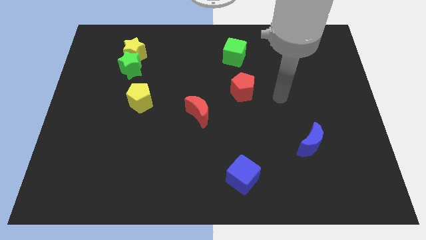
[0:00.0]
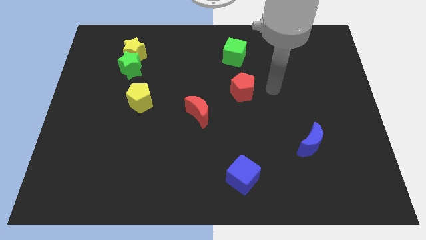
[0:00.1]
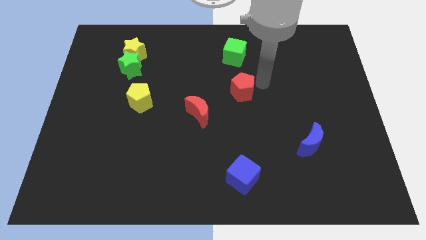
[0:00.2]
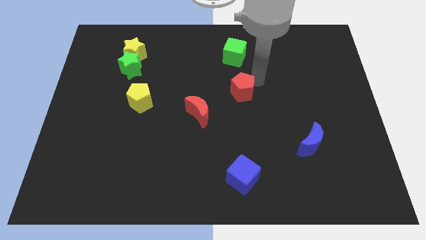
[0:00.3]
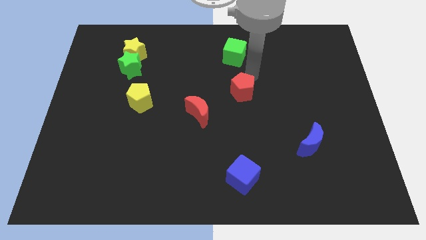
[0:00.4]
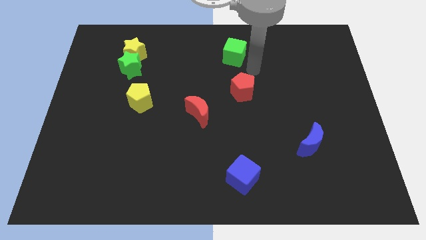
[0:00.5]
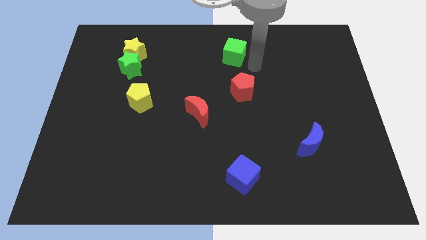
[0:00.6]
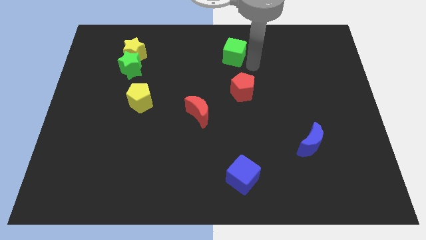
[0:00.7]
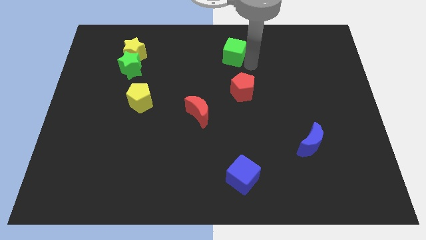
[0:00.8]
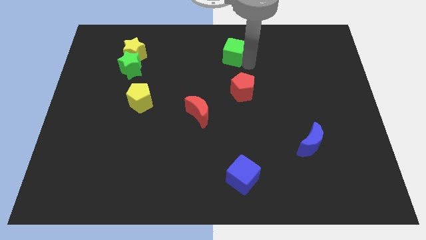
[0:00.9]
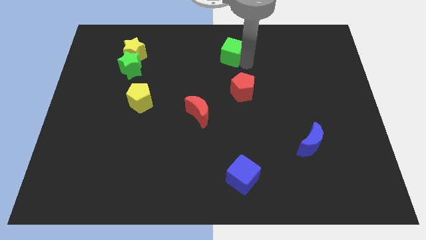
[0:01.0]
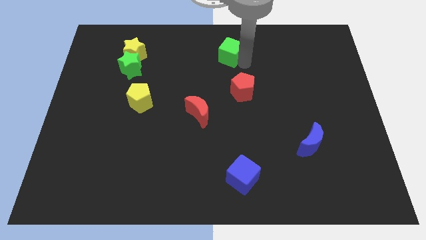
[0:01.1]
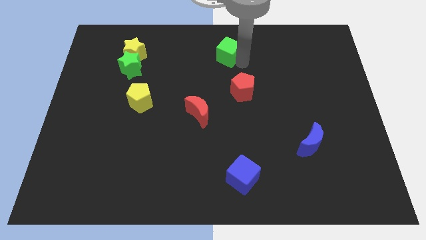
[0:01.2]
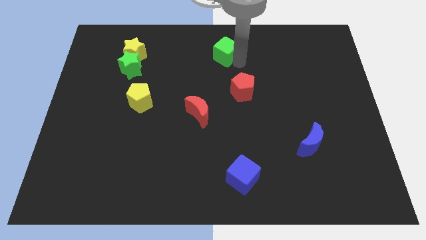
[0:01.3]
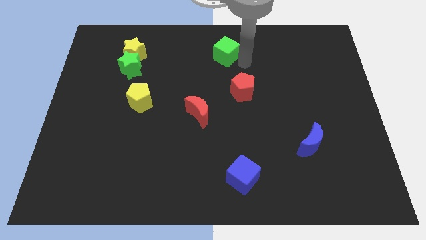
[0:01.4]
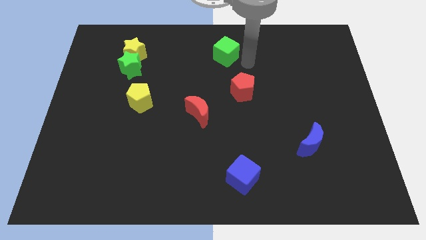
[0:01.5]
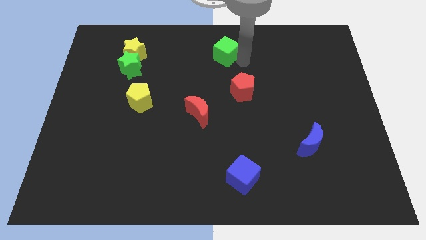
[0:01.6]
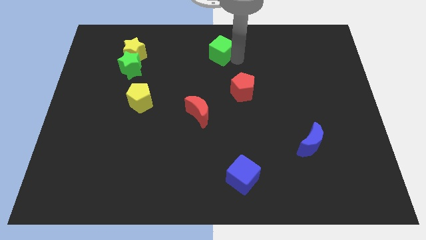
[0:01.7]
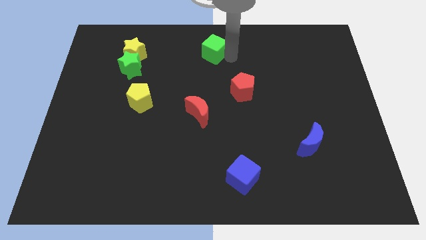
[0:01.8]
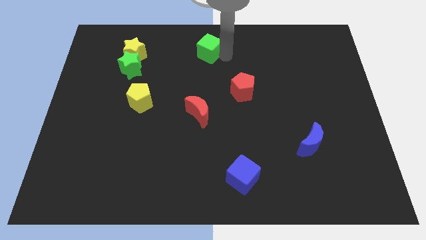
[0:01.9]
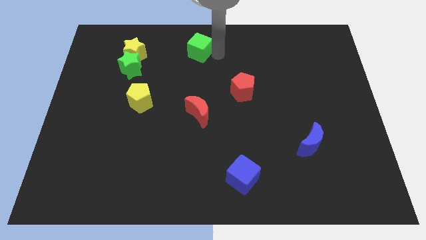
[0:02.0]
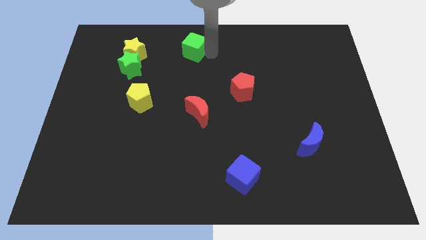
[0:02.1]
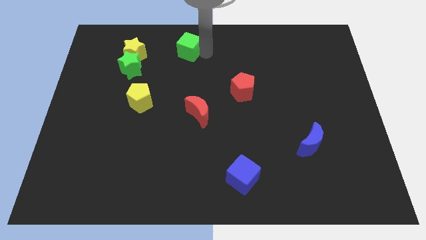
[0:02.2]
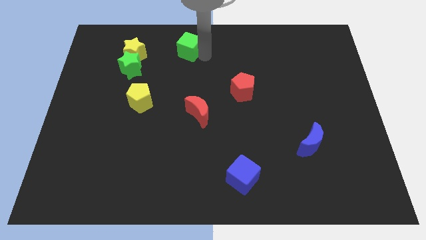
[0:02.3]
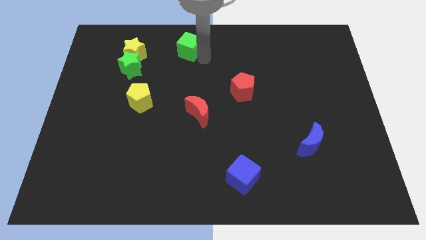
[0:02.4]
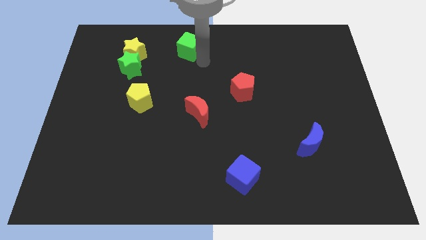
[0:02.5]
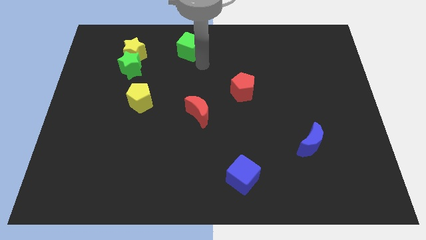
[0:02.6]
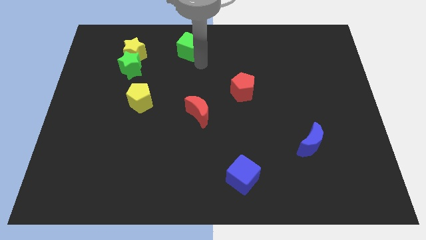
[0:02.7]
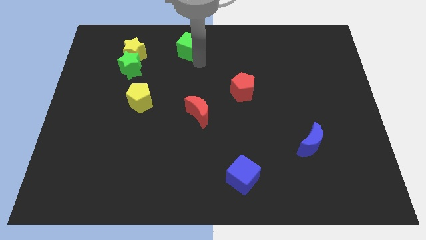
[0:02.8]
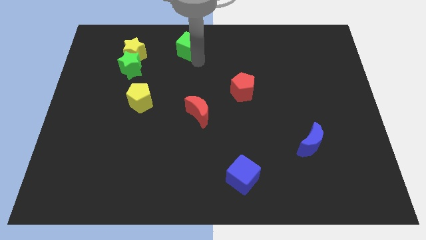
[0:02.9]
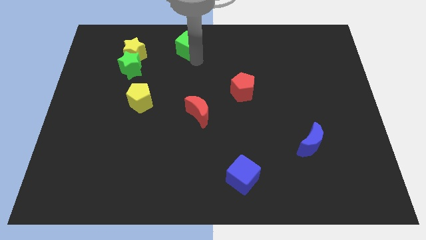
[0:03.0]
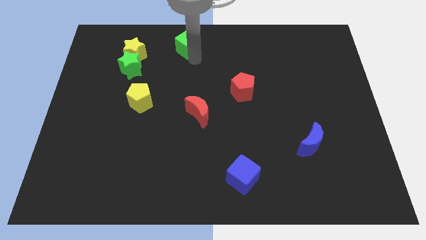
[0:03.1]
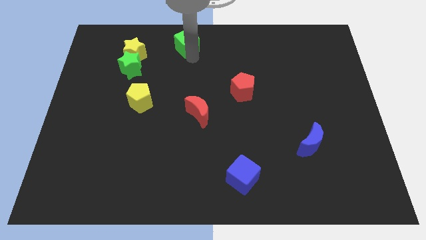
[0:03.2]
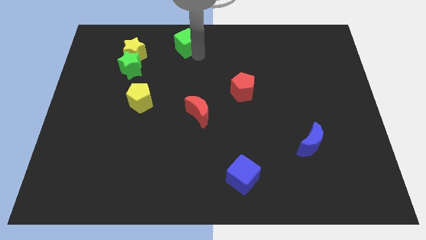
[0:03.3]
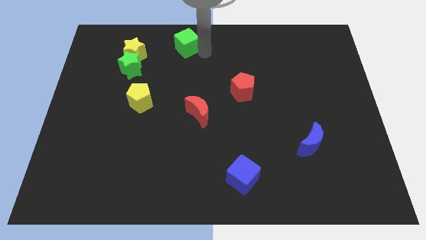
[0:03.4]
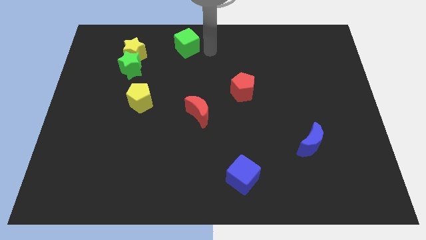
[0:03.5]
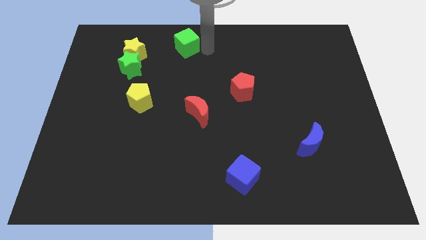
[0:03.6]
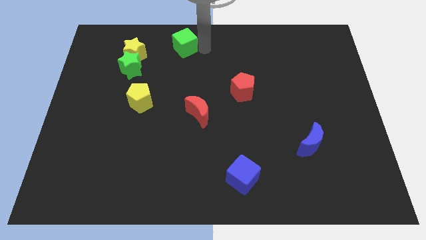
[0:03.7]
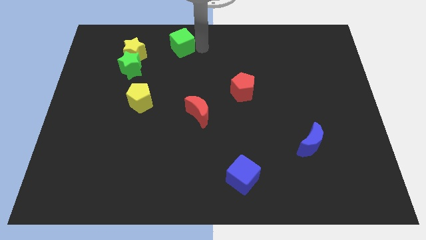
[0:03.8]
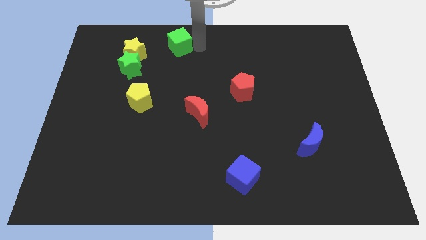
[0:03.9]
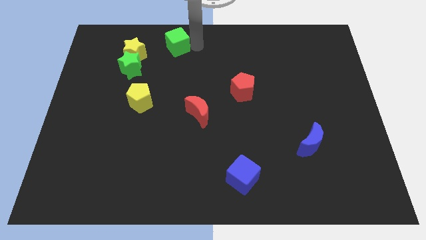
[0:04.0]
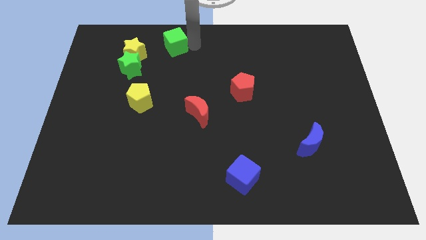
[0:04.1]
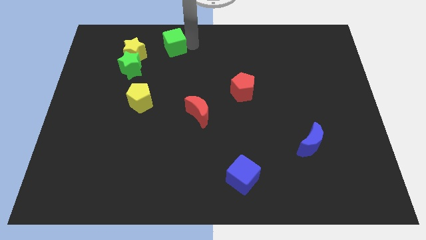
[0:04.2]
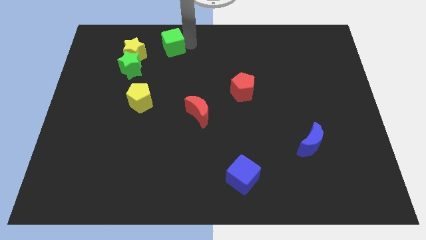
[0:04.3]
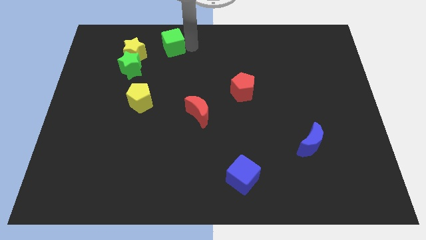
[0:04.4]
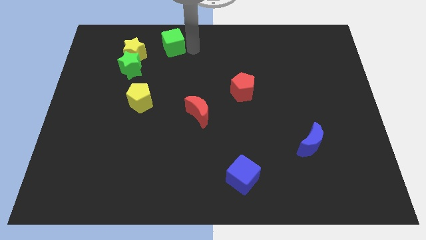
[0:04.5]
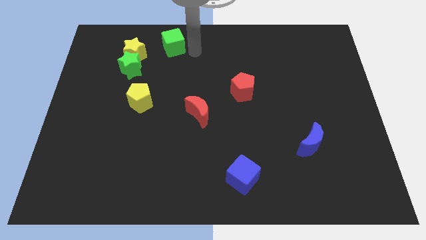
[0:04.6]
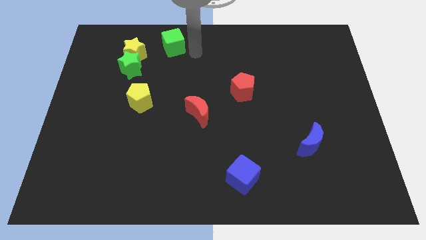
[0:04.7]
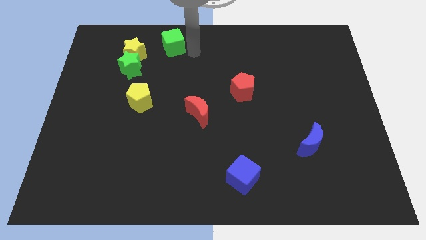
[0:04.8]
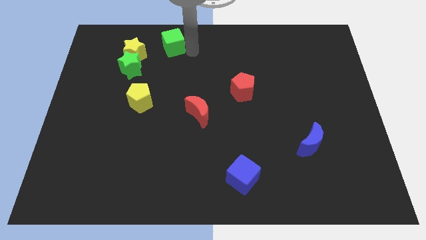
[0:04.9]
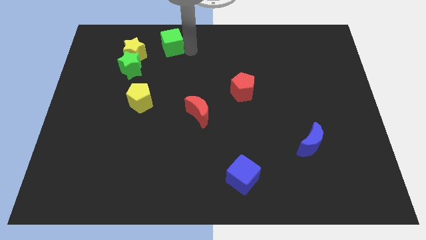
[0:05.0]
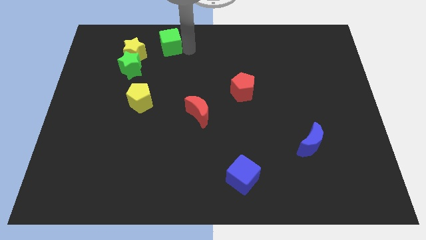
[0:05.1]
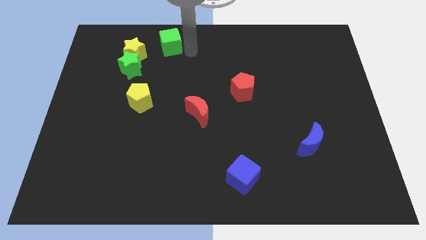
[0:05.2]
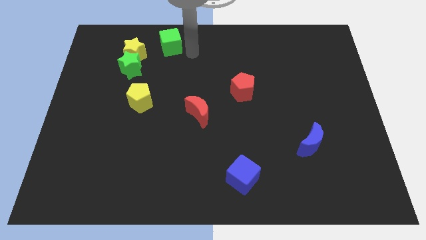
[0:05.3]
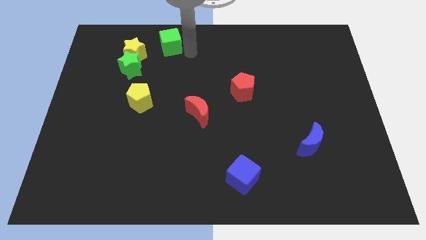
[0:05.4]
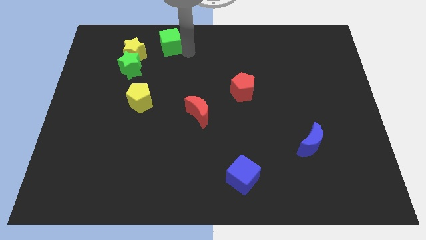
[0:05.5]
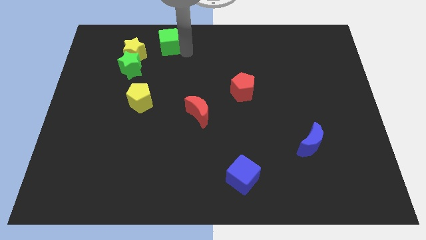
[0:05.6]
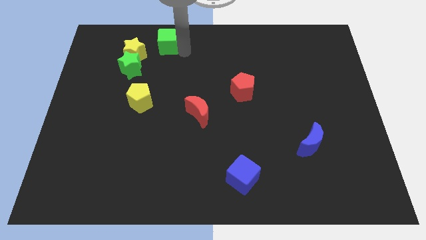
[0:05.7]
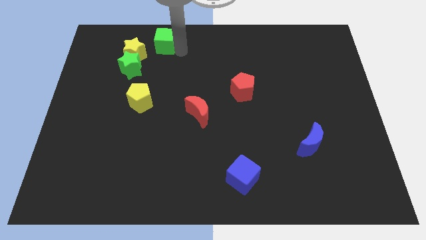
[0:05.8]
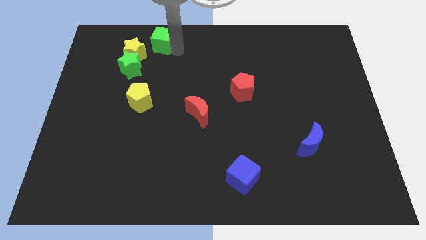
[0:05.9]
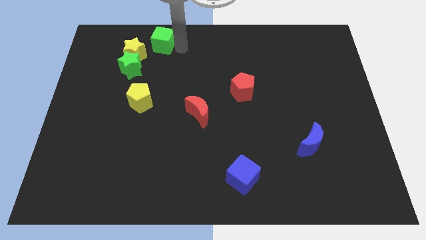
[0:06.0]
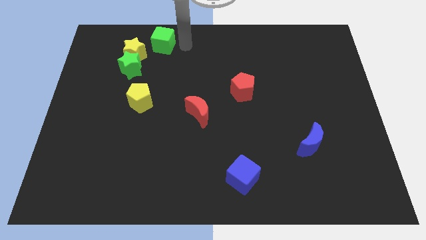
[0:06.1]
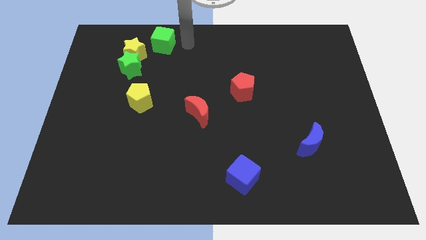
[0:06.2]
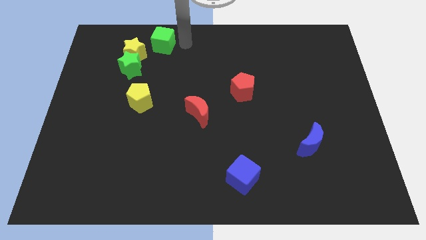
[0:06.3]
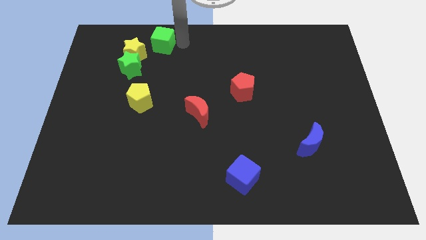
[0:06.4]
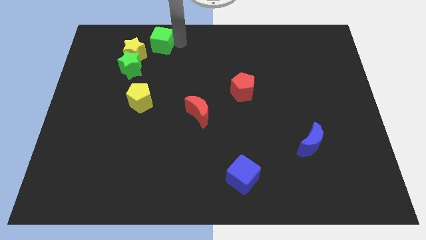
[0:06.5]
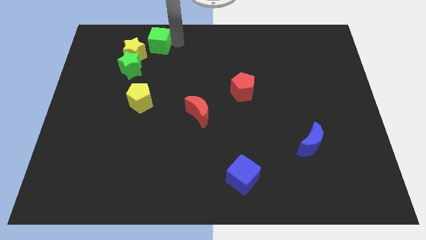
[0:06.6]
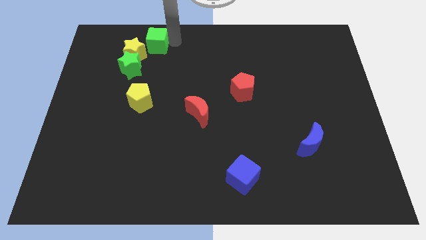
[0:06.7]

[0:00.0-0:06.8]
move the green cube left

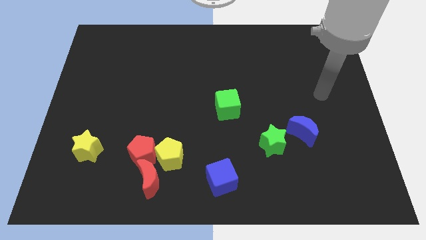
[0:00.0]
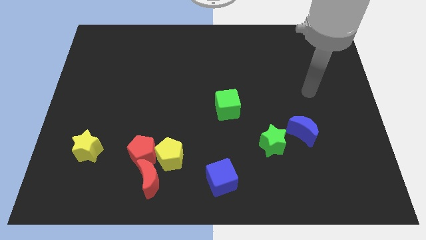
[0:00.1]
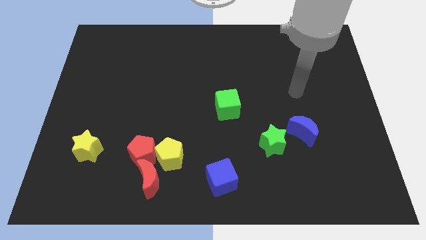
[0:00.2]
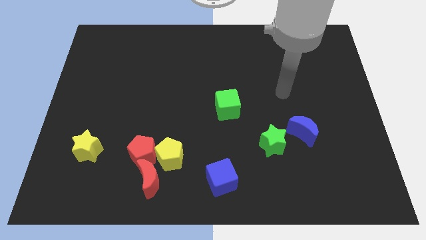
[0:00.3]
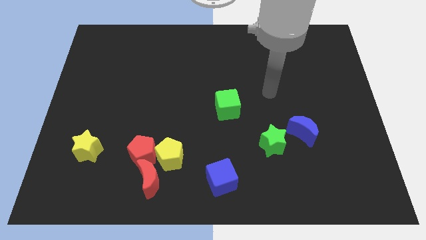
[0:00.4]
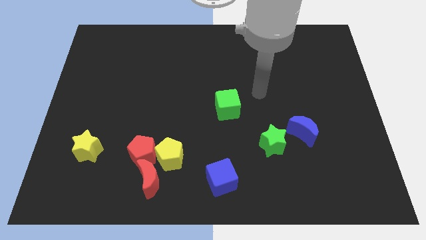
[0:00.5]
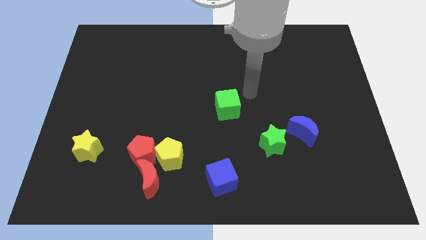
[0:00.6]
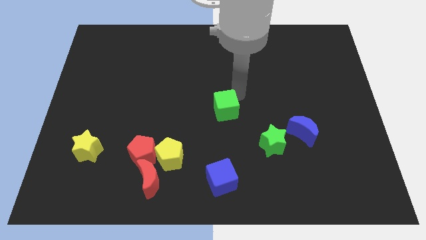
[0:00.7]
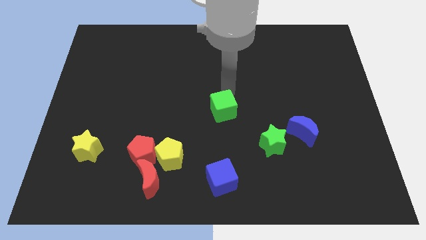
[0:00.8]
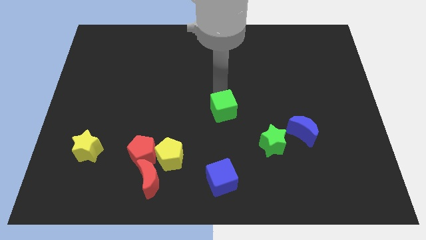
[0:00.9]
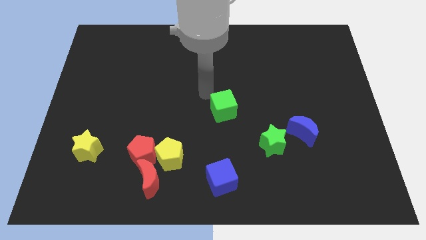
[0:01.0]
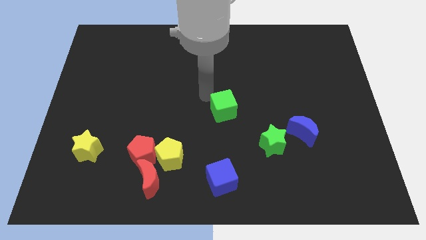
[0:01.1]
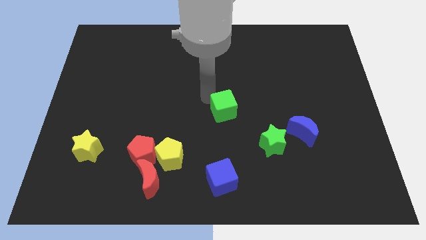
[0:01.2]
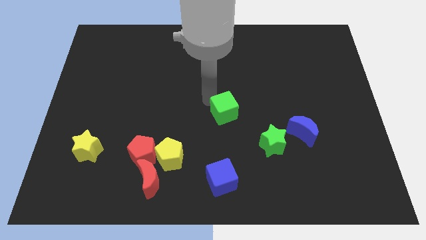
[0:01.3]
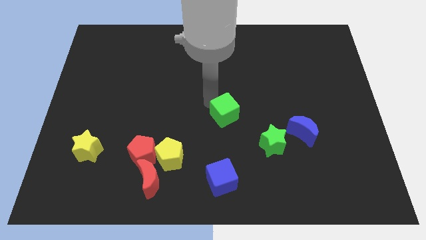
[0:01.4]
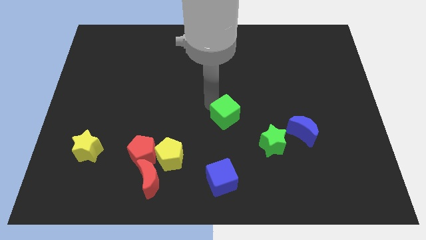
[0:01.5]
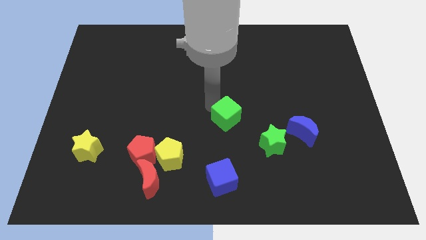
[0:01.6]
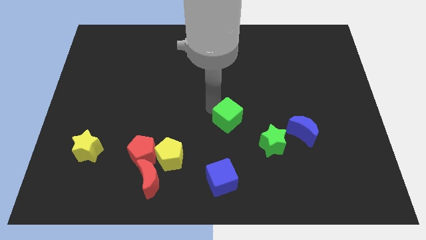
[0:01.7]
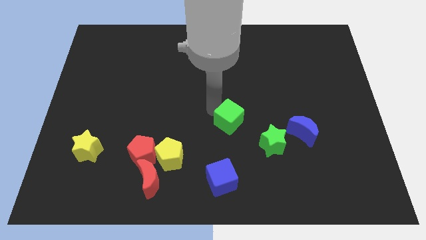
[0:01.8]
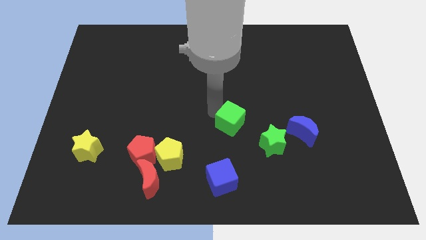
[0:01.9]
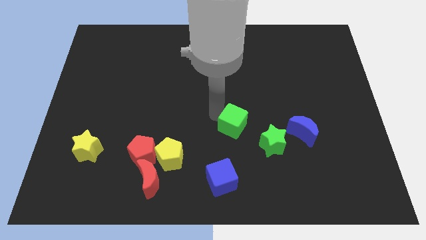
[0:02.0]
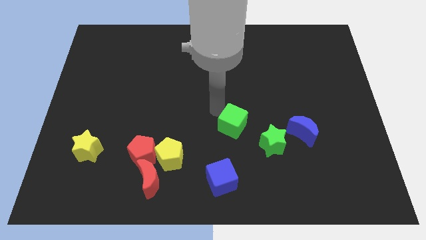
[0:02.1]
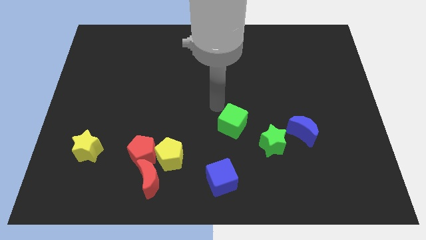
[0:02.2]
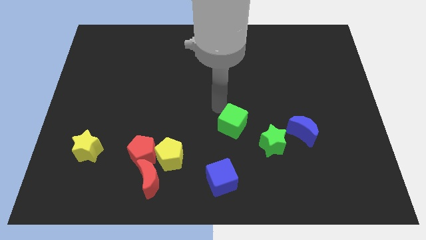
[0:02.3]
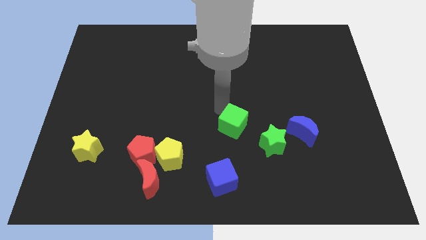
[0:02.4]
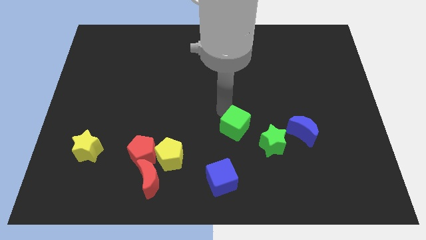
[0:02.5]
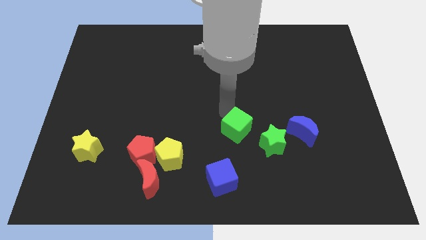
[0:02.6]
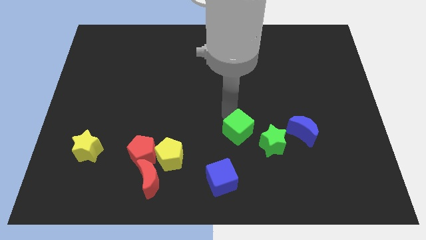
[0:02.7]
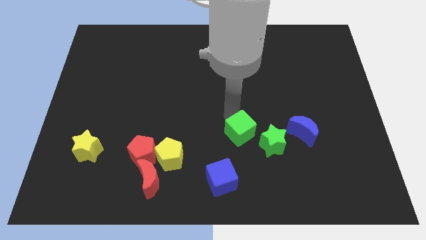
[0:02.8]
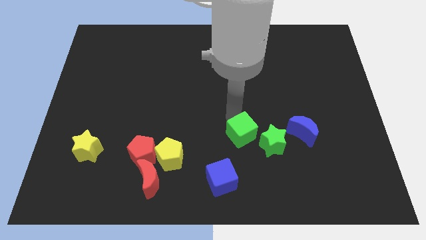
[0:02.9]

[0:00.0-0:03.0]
slightly move the green cube downwards and right diagonally
